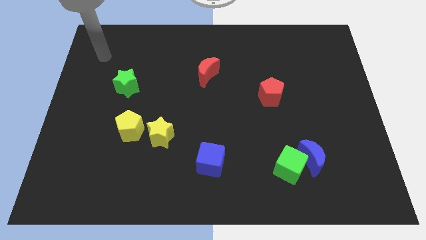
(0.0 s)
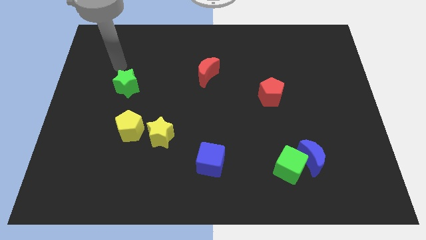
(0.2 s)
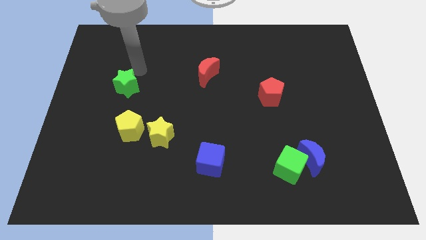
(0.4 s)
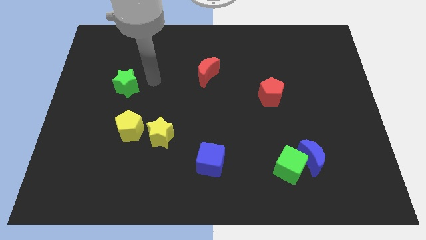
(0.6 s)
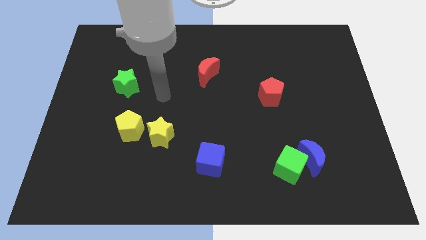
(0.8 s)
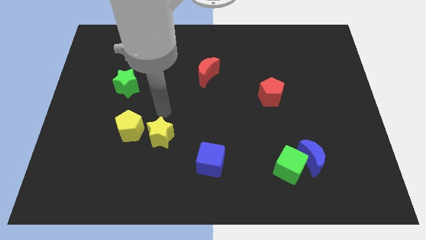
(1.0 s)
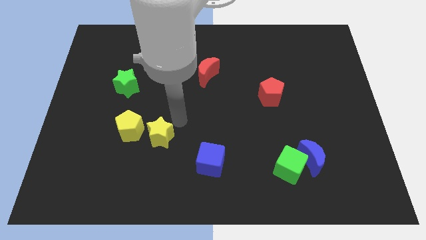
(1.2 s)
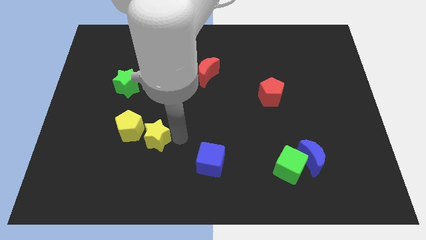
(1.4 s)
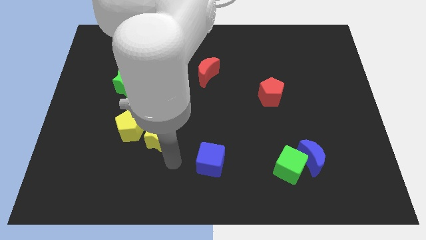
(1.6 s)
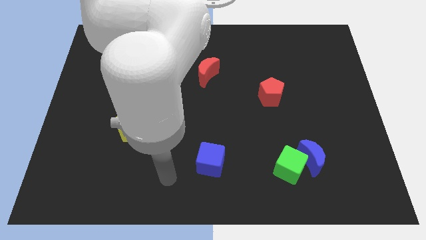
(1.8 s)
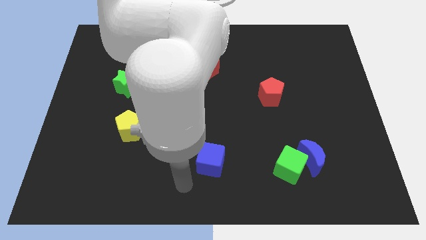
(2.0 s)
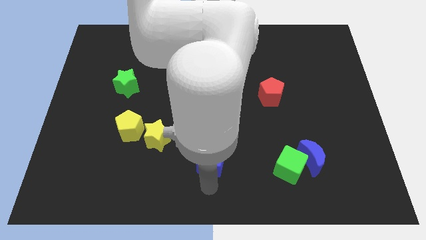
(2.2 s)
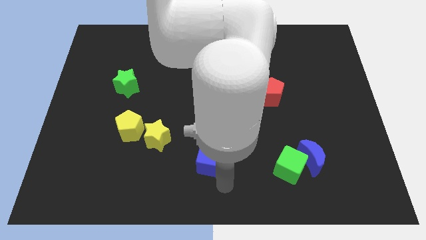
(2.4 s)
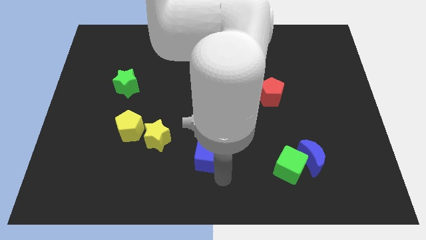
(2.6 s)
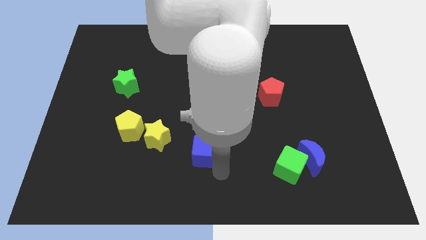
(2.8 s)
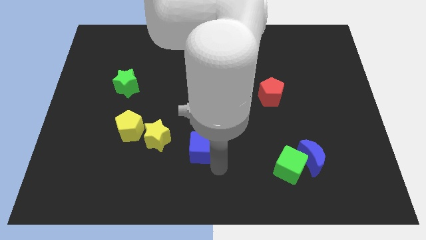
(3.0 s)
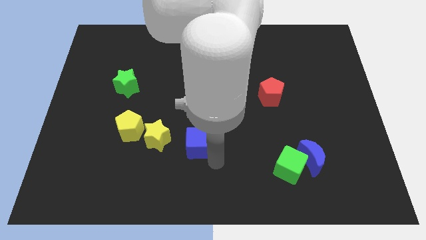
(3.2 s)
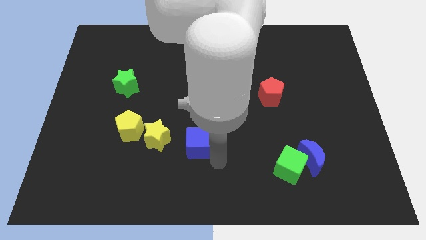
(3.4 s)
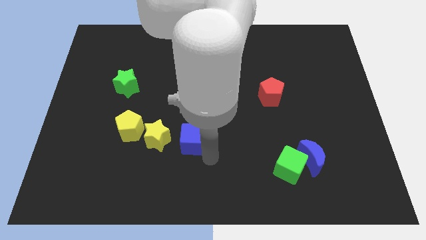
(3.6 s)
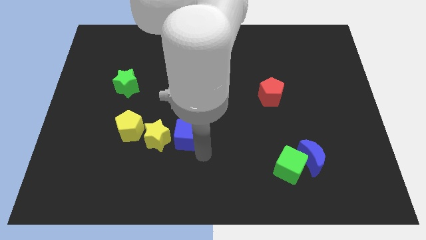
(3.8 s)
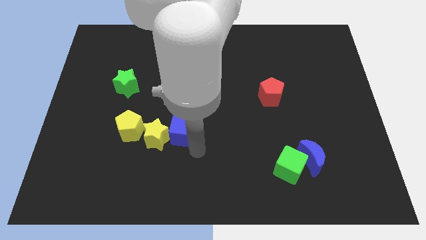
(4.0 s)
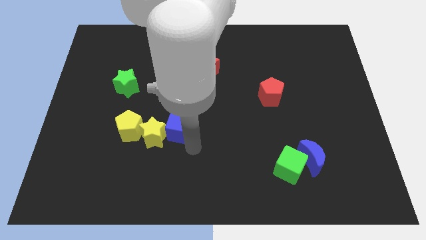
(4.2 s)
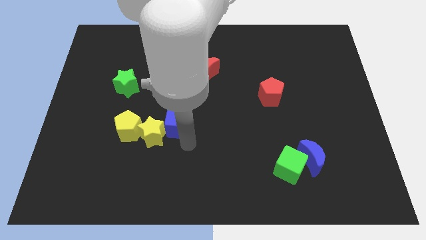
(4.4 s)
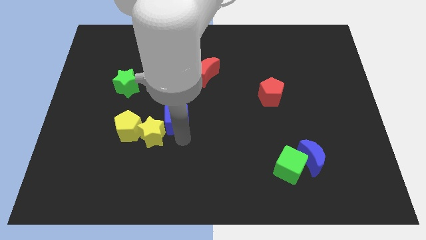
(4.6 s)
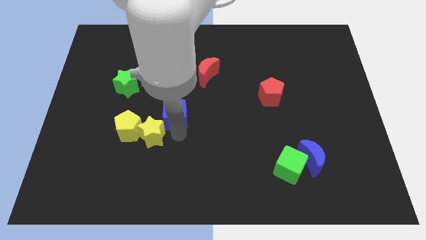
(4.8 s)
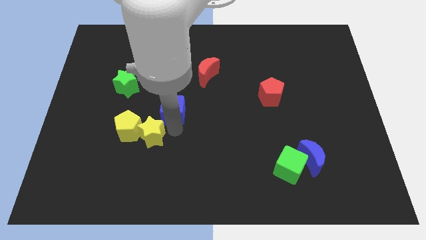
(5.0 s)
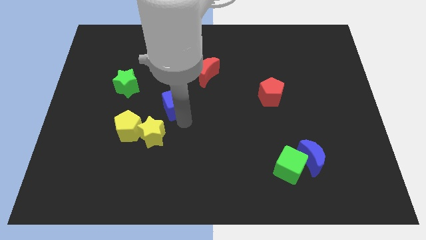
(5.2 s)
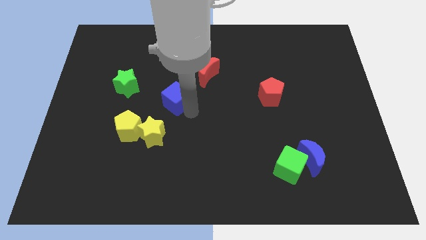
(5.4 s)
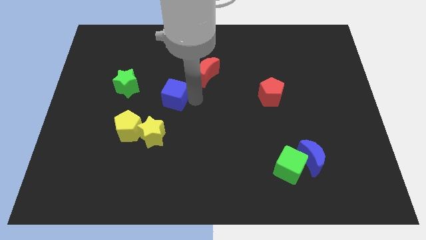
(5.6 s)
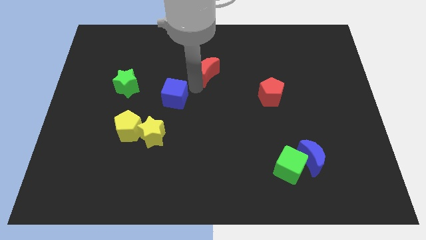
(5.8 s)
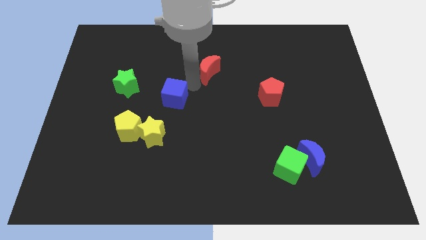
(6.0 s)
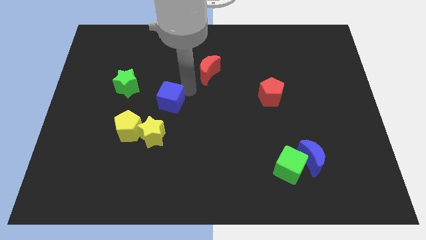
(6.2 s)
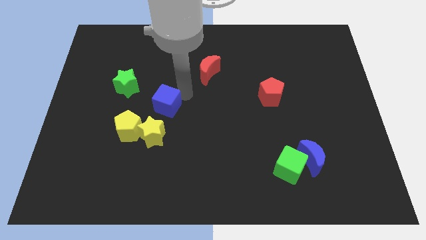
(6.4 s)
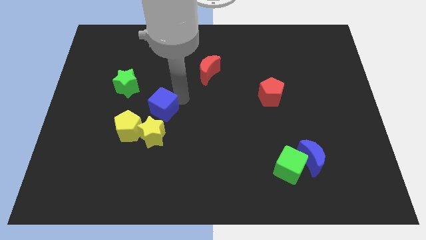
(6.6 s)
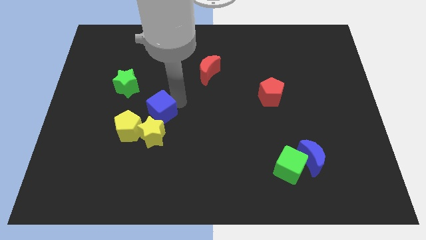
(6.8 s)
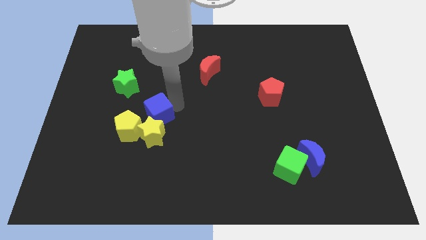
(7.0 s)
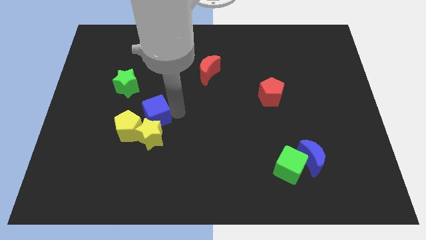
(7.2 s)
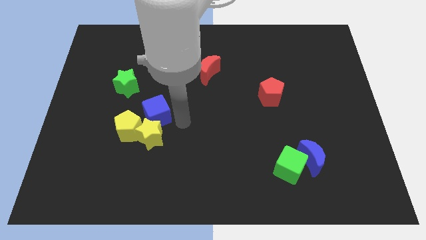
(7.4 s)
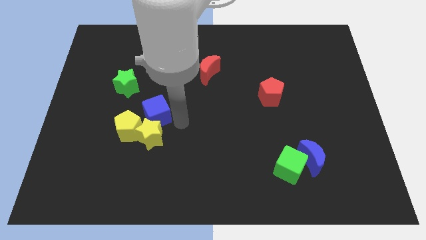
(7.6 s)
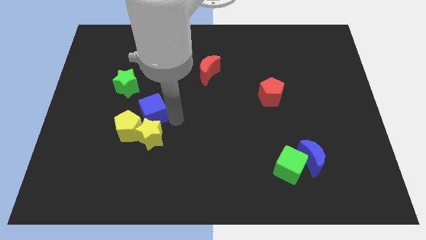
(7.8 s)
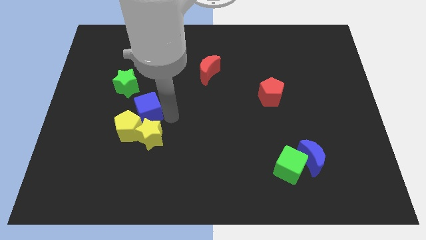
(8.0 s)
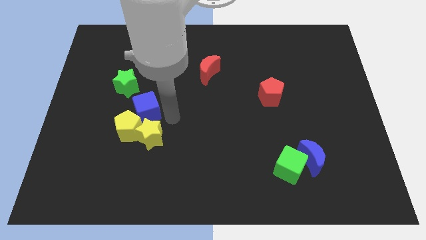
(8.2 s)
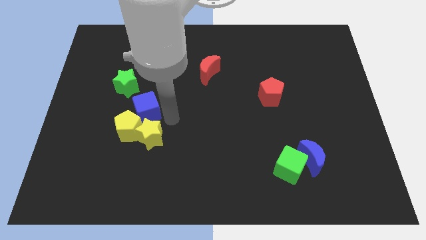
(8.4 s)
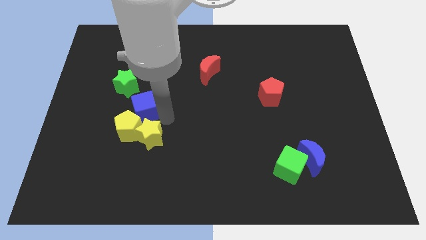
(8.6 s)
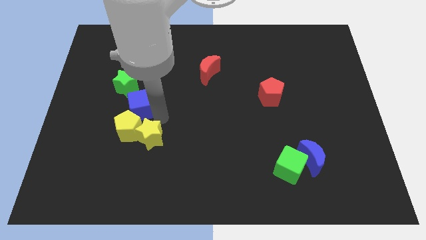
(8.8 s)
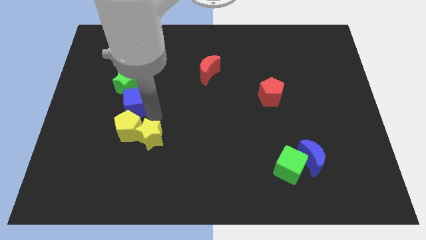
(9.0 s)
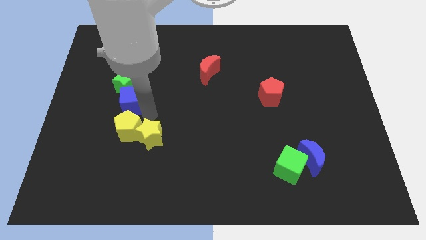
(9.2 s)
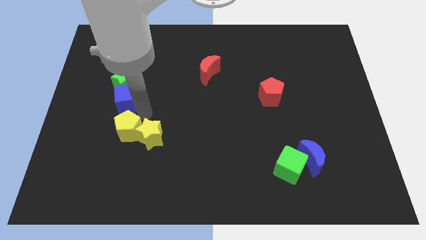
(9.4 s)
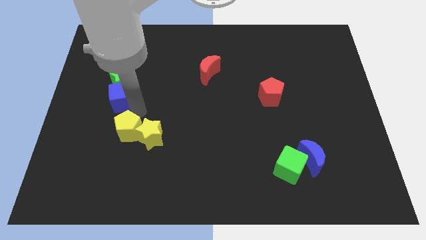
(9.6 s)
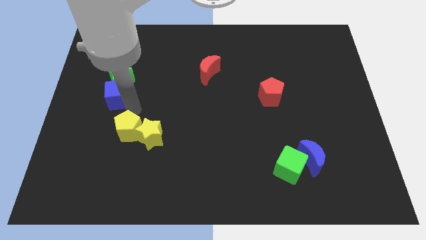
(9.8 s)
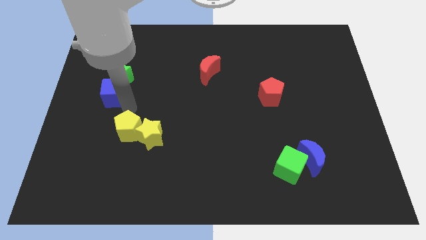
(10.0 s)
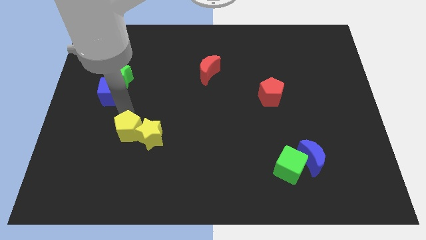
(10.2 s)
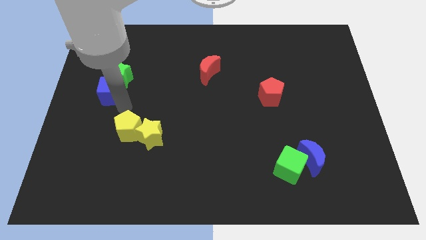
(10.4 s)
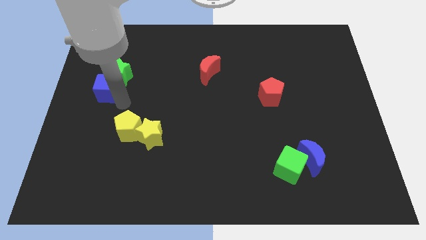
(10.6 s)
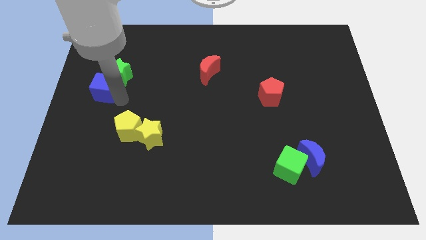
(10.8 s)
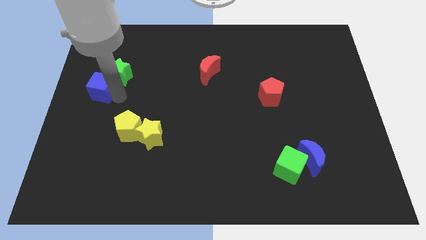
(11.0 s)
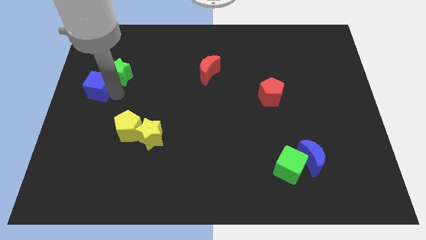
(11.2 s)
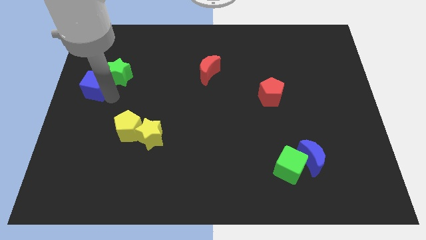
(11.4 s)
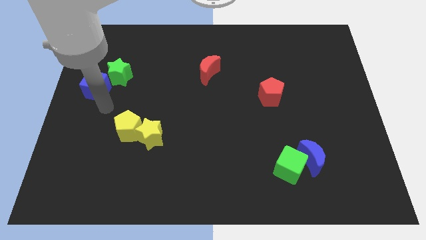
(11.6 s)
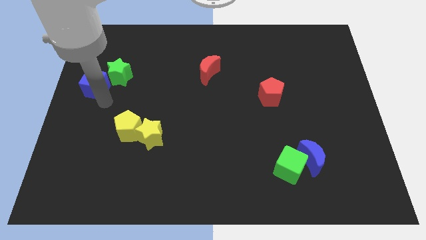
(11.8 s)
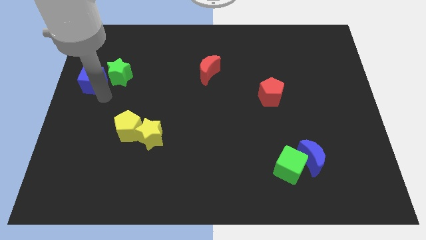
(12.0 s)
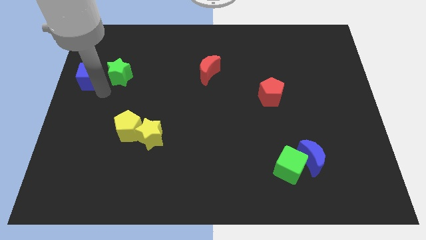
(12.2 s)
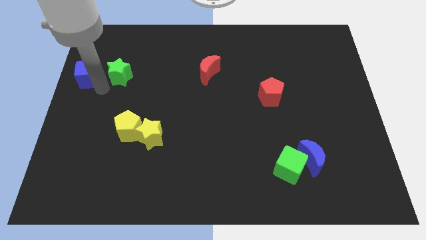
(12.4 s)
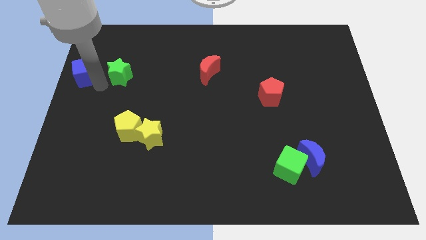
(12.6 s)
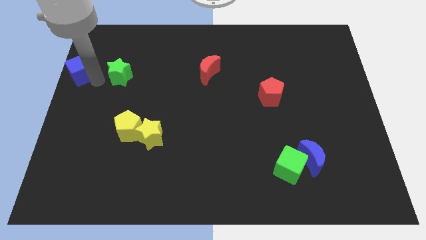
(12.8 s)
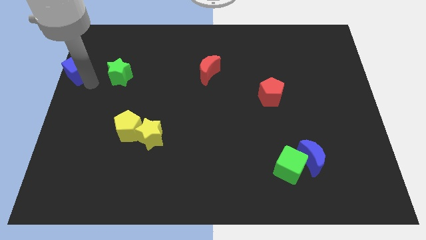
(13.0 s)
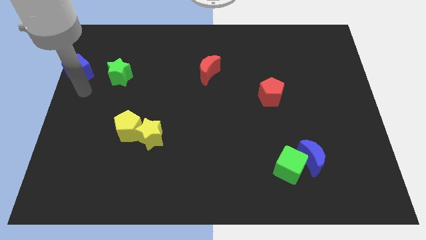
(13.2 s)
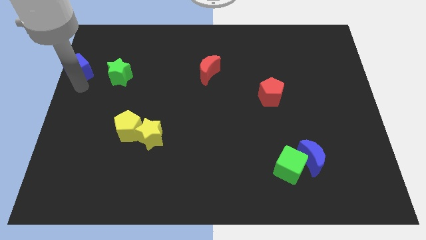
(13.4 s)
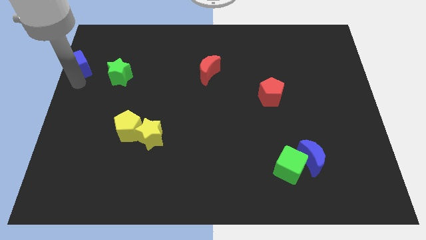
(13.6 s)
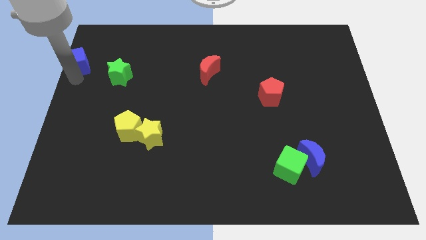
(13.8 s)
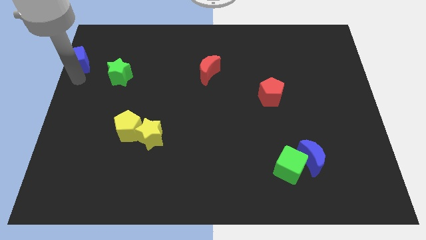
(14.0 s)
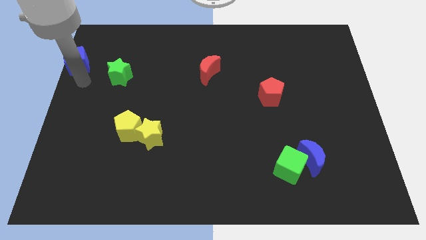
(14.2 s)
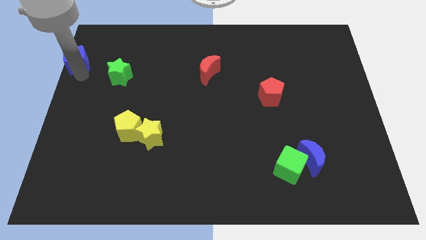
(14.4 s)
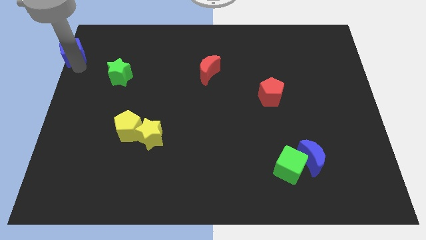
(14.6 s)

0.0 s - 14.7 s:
push the blue cube to the top left
